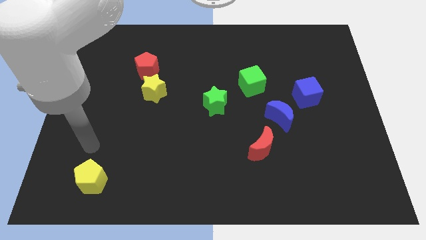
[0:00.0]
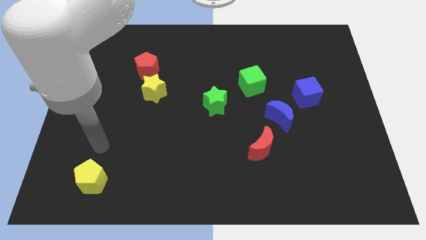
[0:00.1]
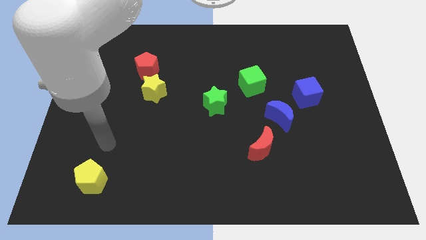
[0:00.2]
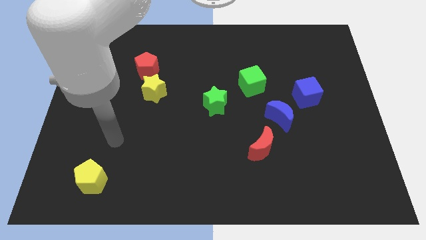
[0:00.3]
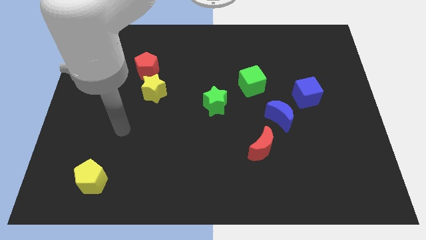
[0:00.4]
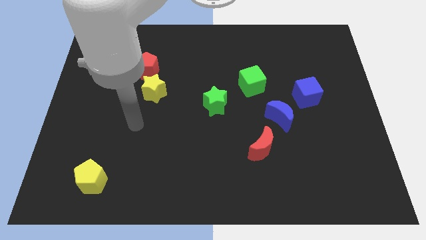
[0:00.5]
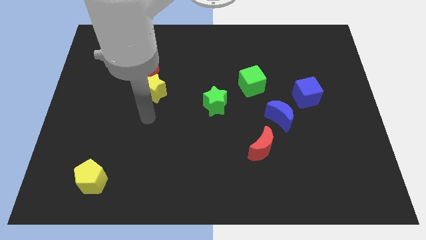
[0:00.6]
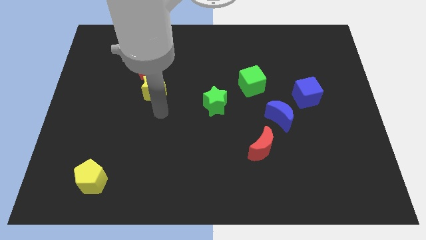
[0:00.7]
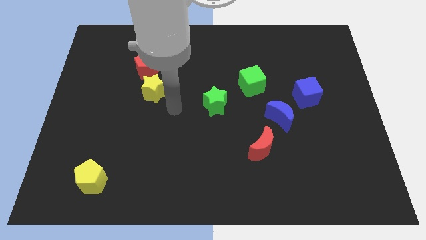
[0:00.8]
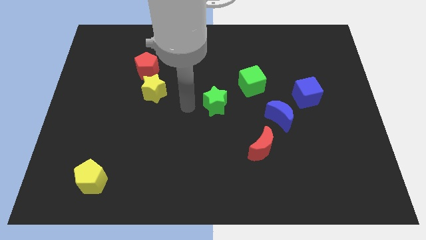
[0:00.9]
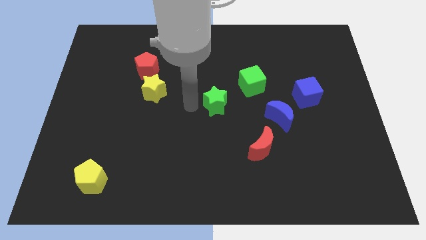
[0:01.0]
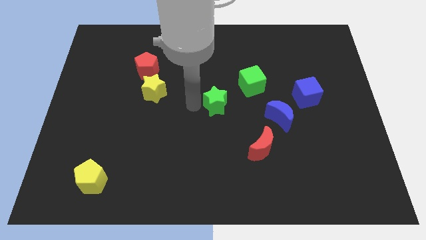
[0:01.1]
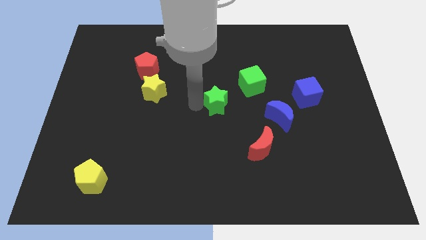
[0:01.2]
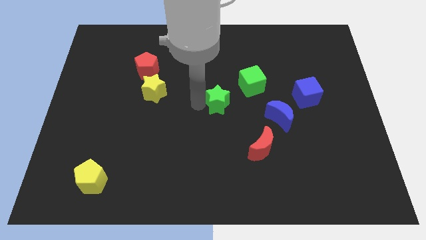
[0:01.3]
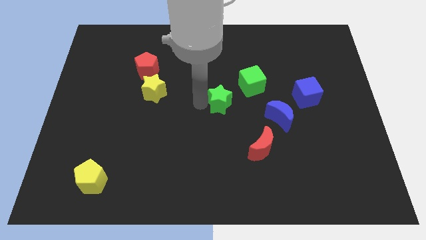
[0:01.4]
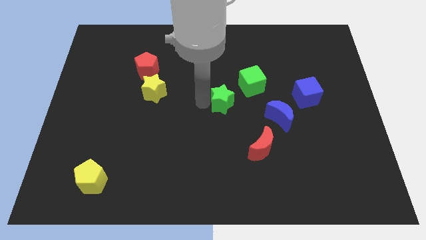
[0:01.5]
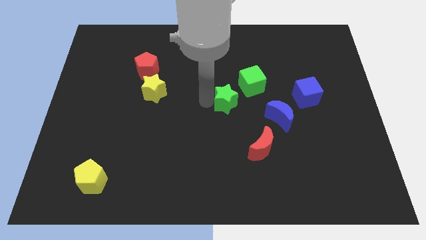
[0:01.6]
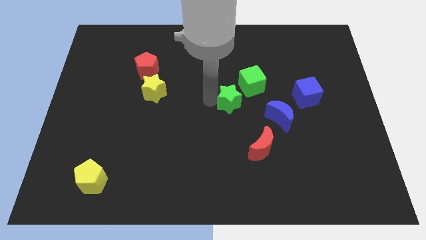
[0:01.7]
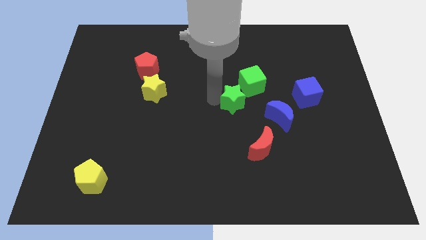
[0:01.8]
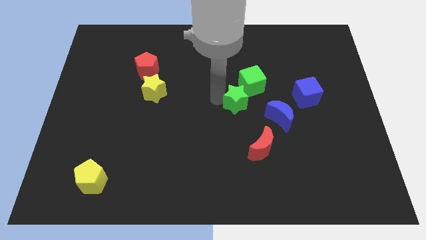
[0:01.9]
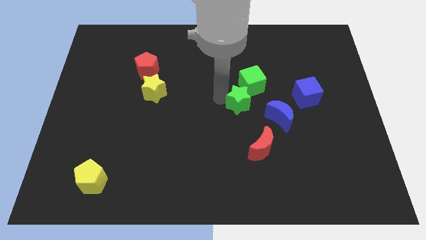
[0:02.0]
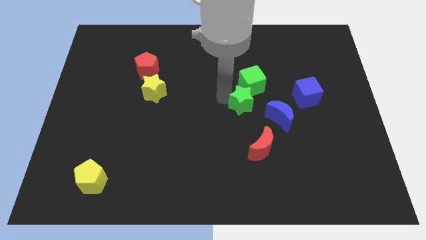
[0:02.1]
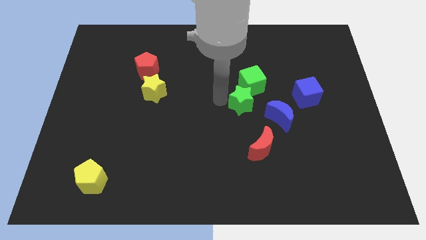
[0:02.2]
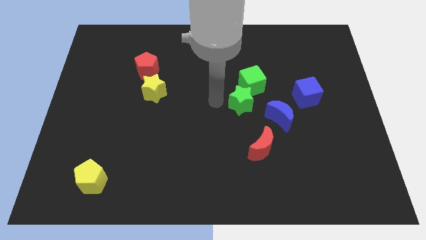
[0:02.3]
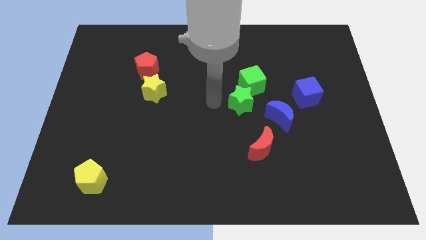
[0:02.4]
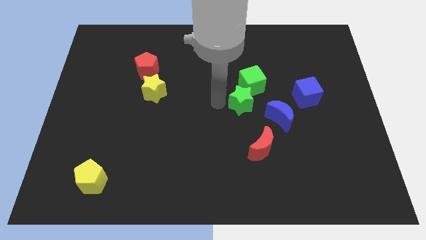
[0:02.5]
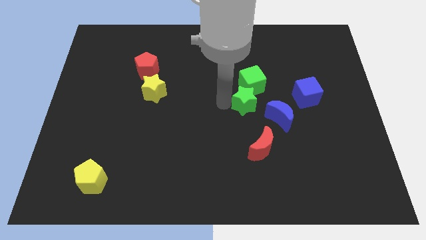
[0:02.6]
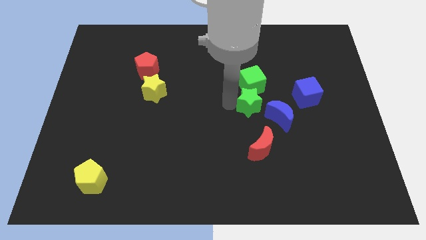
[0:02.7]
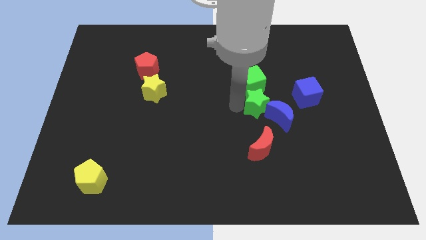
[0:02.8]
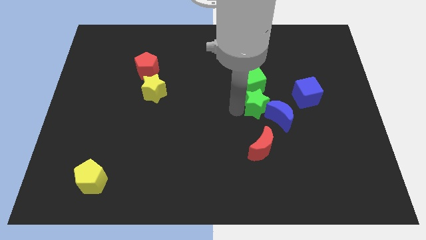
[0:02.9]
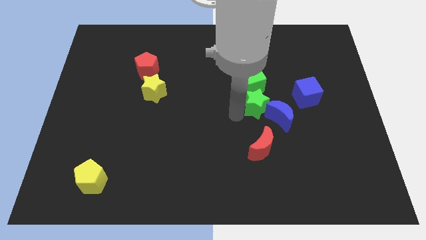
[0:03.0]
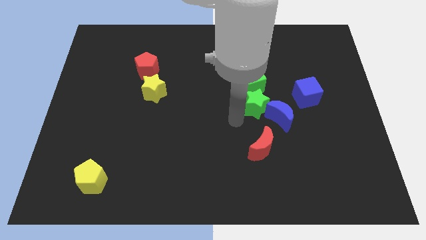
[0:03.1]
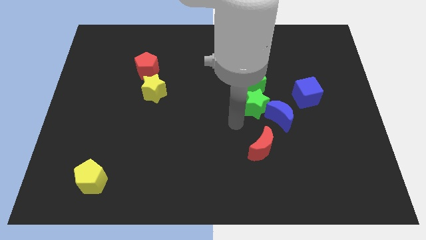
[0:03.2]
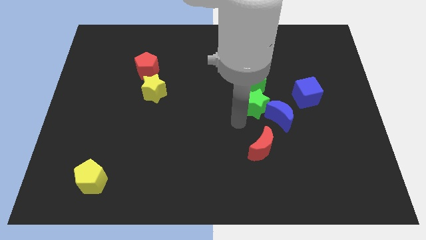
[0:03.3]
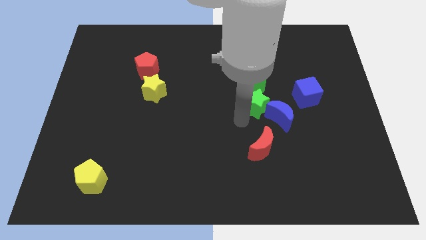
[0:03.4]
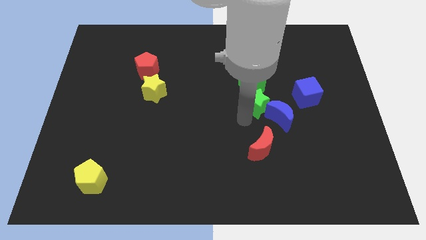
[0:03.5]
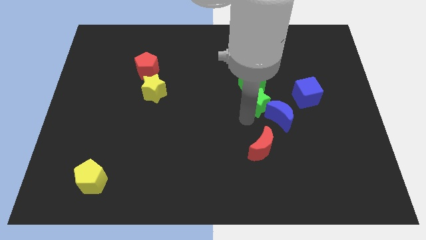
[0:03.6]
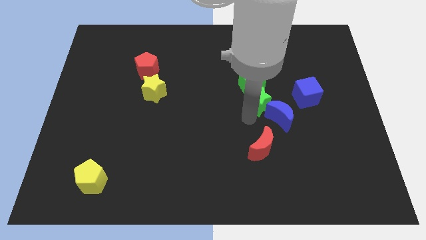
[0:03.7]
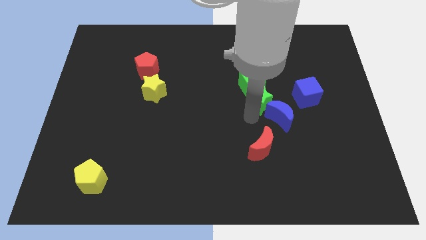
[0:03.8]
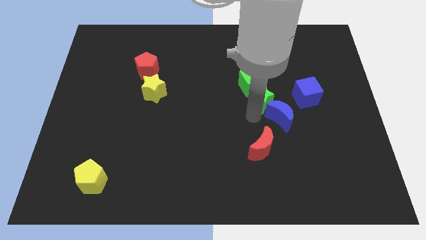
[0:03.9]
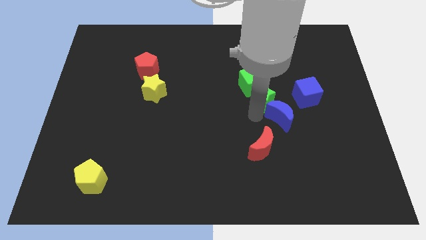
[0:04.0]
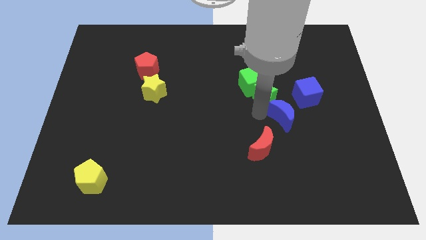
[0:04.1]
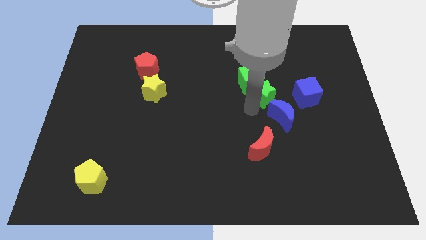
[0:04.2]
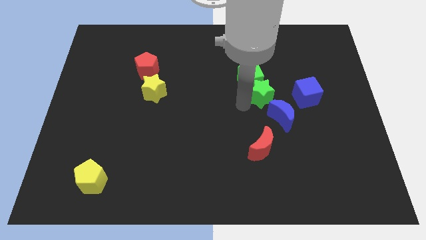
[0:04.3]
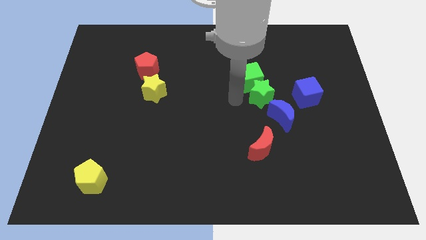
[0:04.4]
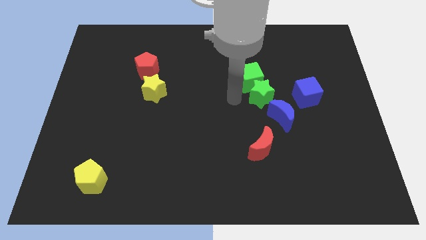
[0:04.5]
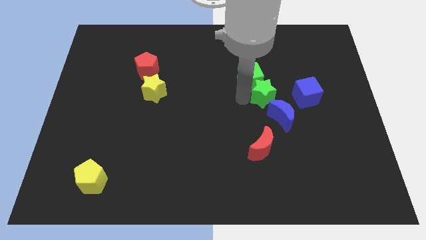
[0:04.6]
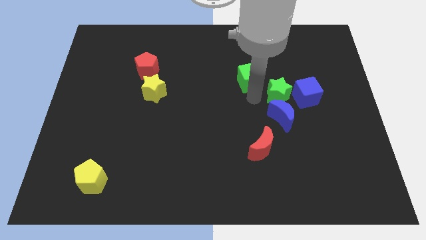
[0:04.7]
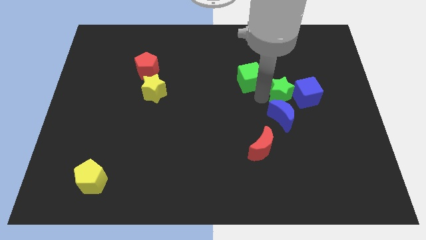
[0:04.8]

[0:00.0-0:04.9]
put the green star next to the blue cube

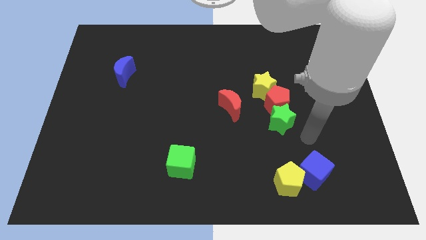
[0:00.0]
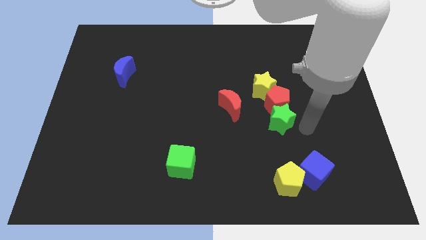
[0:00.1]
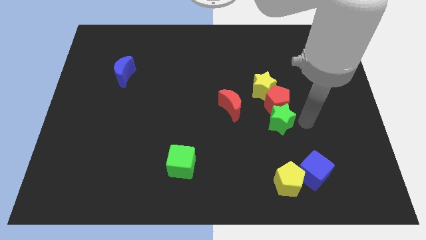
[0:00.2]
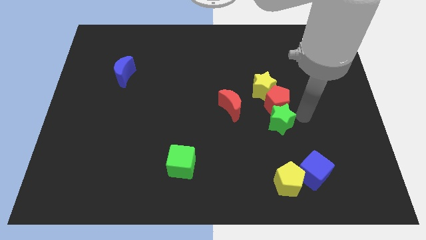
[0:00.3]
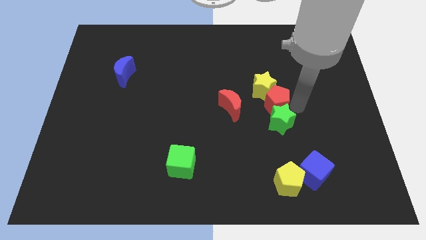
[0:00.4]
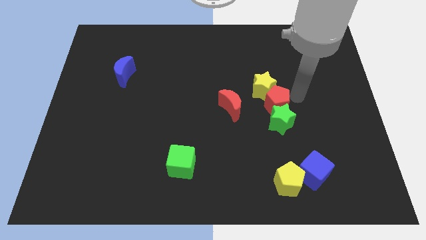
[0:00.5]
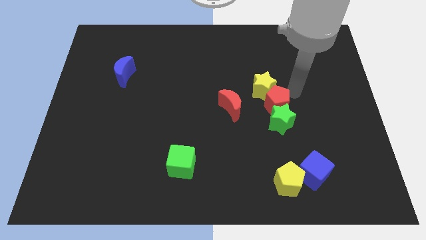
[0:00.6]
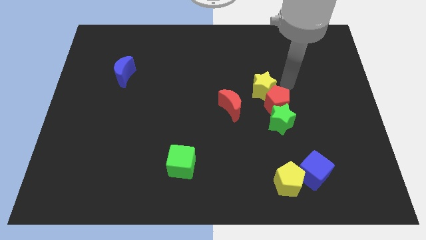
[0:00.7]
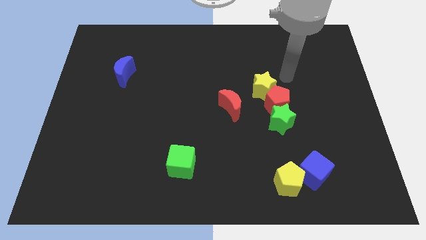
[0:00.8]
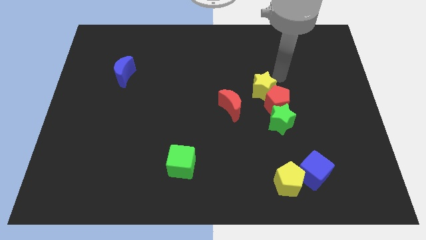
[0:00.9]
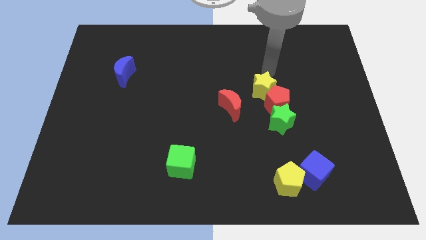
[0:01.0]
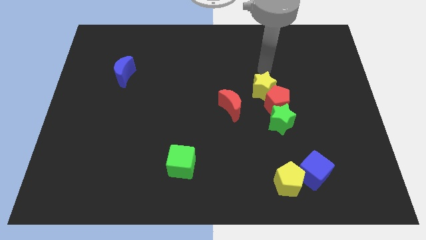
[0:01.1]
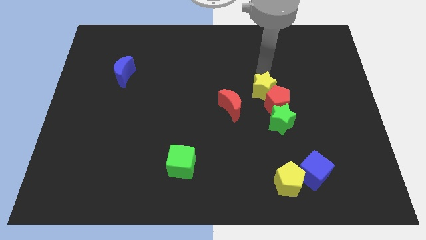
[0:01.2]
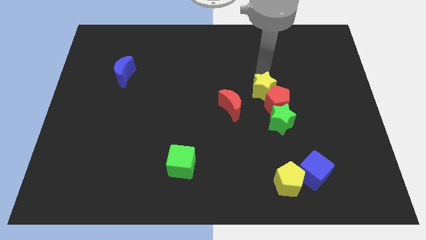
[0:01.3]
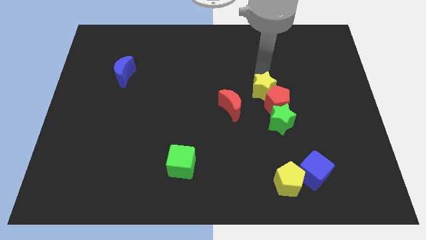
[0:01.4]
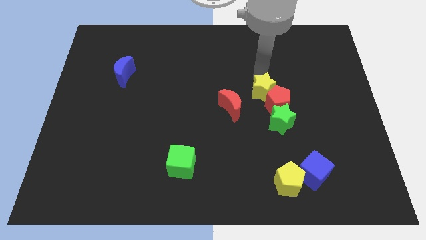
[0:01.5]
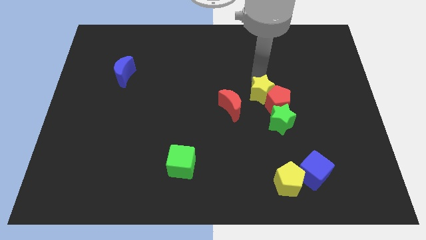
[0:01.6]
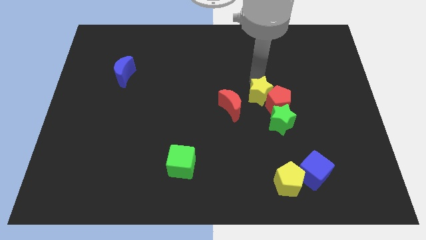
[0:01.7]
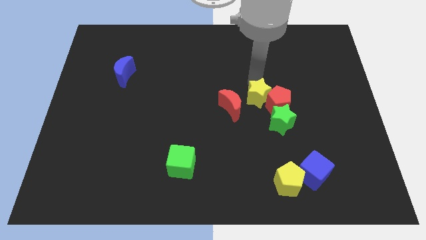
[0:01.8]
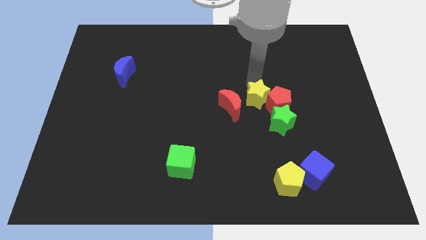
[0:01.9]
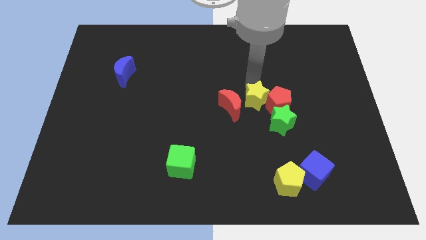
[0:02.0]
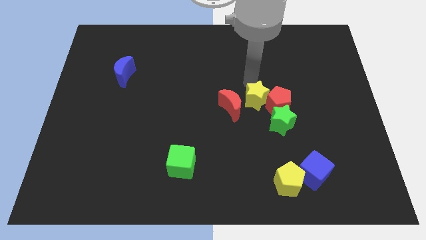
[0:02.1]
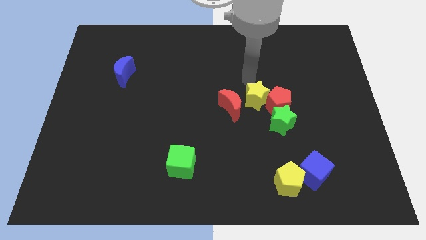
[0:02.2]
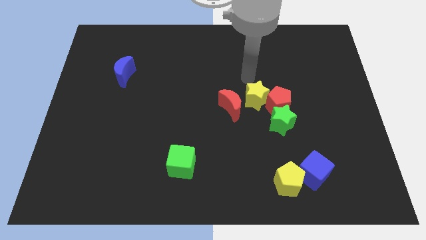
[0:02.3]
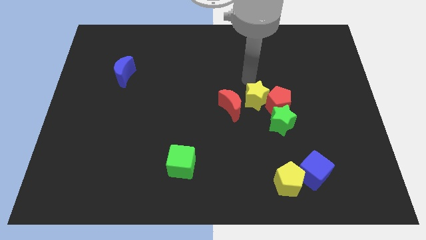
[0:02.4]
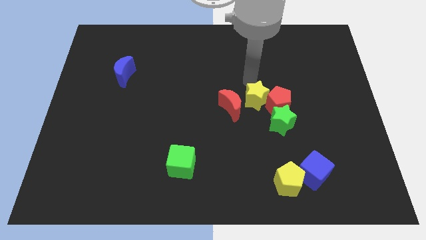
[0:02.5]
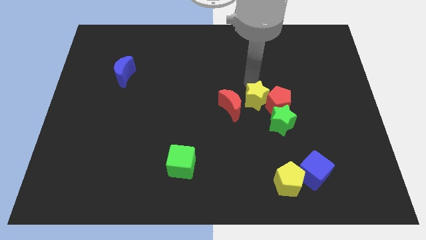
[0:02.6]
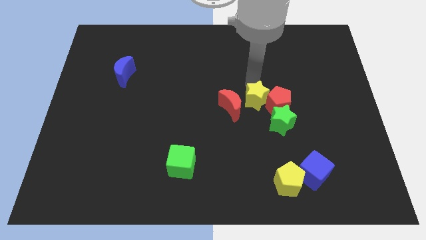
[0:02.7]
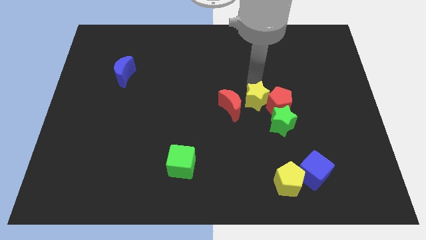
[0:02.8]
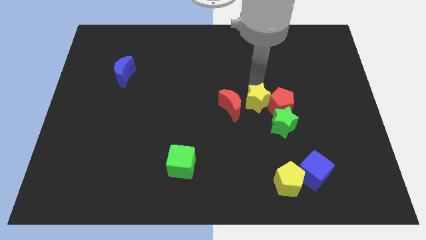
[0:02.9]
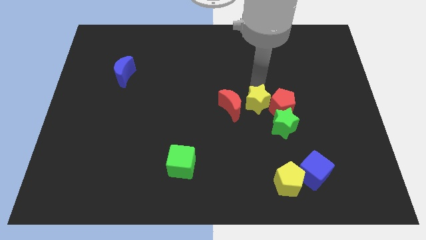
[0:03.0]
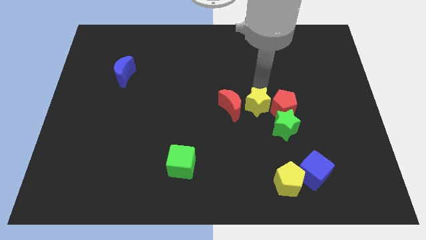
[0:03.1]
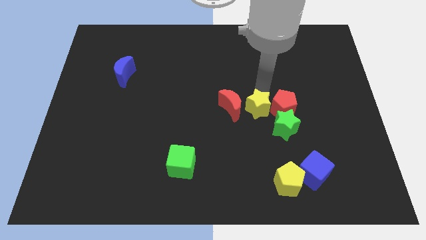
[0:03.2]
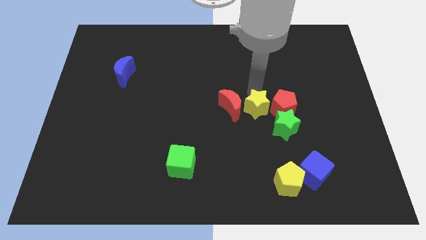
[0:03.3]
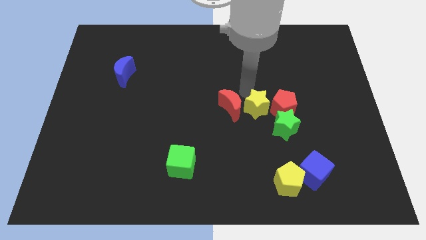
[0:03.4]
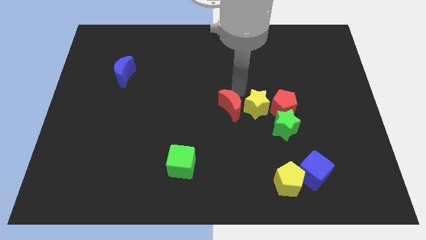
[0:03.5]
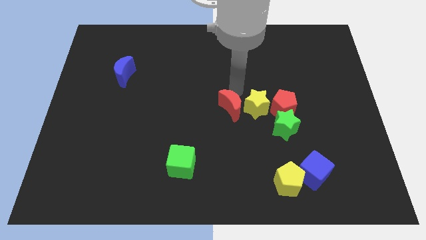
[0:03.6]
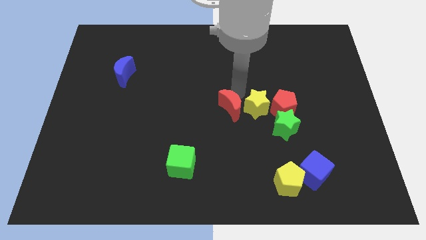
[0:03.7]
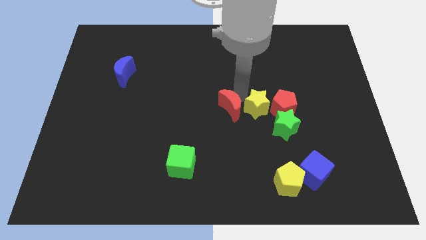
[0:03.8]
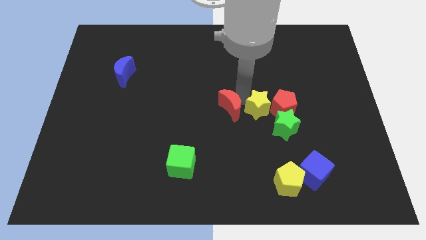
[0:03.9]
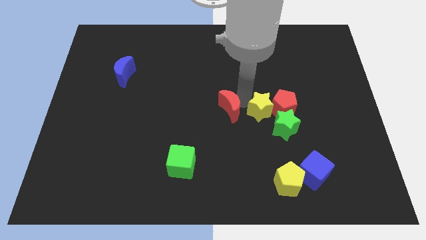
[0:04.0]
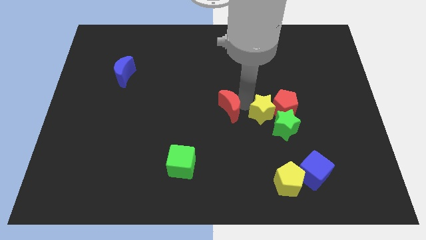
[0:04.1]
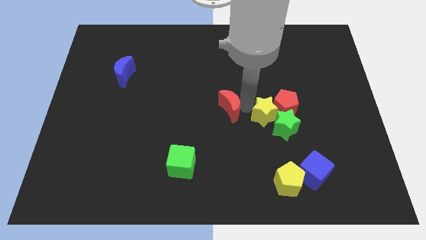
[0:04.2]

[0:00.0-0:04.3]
put the yellow star to the green star
